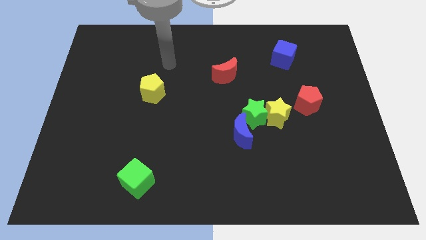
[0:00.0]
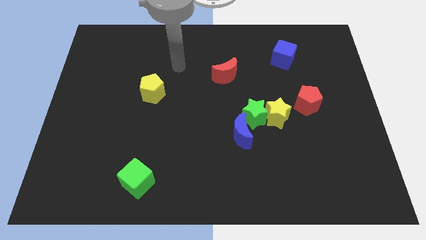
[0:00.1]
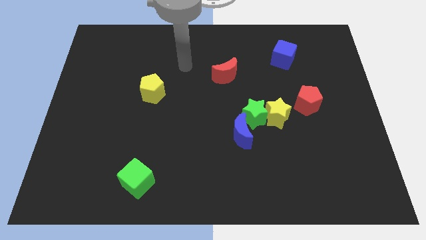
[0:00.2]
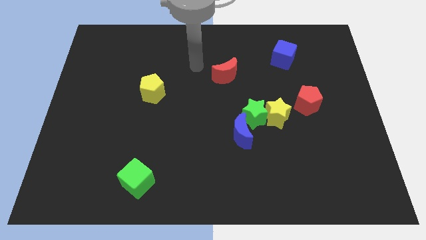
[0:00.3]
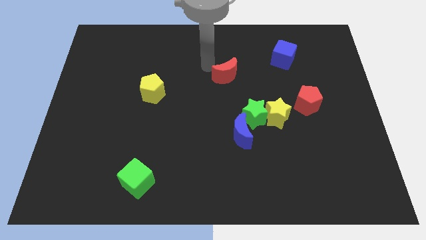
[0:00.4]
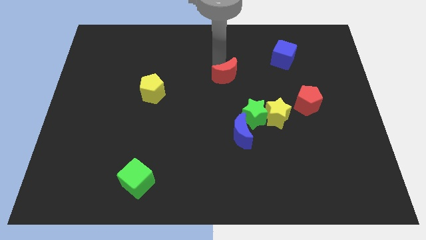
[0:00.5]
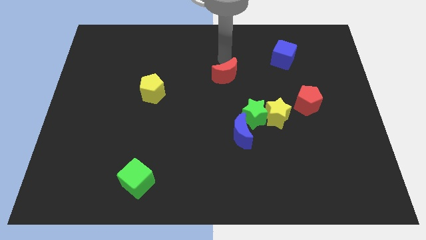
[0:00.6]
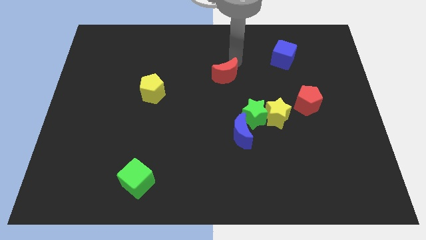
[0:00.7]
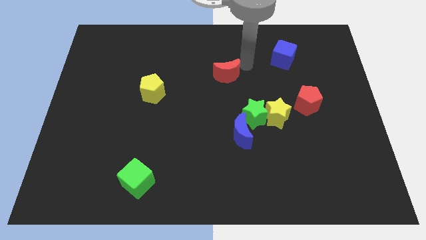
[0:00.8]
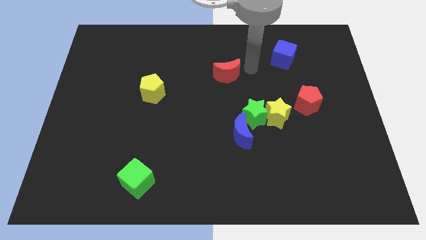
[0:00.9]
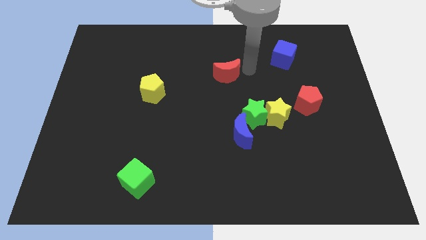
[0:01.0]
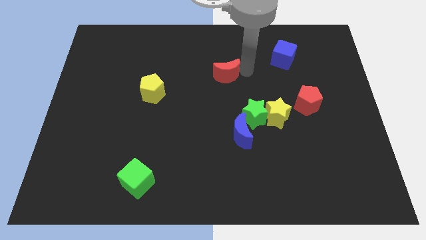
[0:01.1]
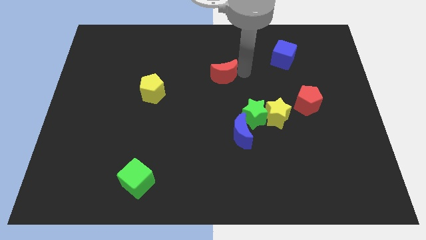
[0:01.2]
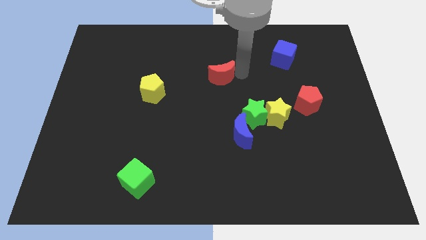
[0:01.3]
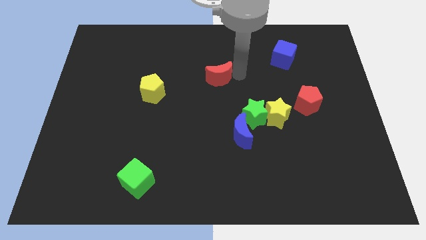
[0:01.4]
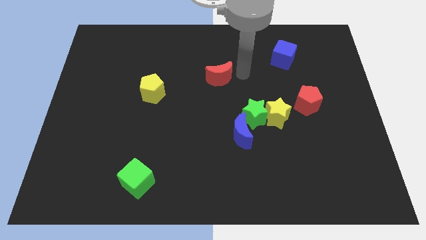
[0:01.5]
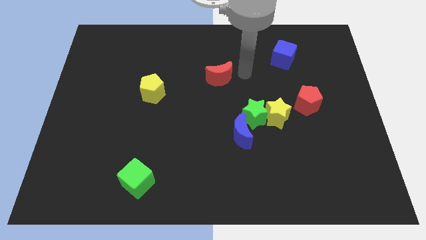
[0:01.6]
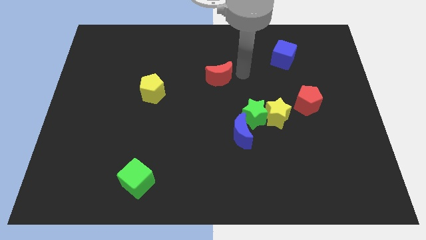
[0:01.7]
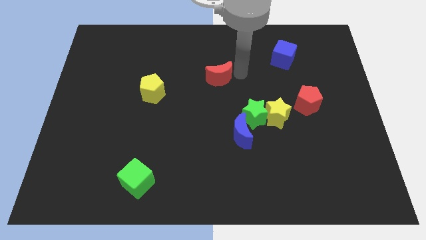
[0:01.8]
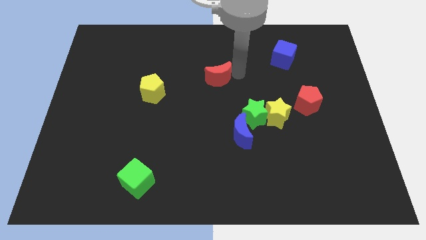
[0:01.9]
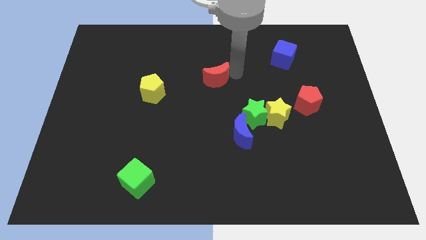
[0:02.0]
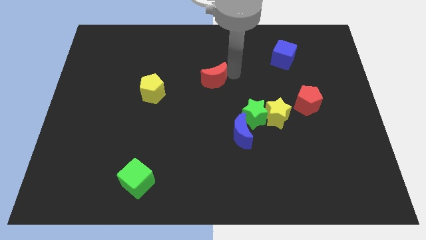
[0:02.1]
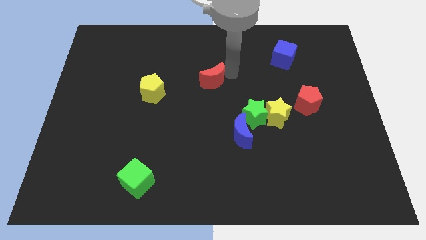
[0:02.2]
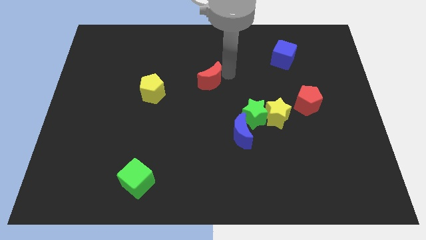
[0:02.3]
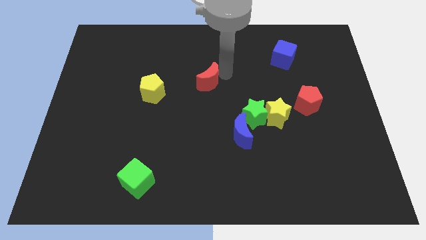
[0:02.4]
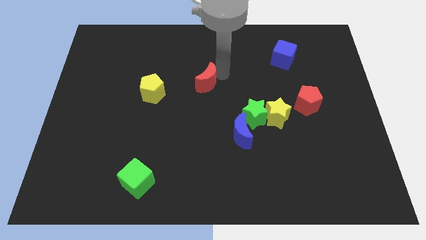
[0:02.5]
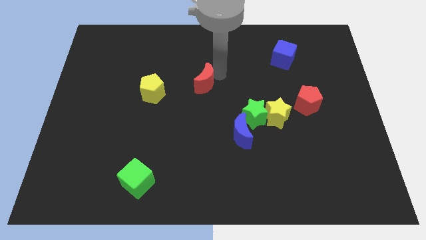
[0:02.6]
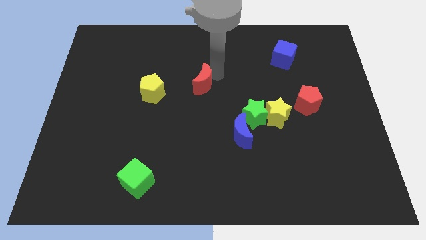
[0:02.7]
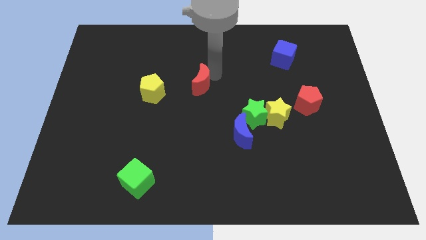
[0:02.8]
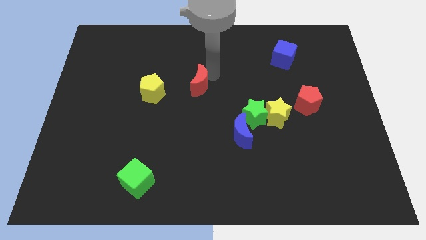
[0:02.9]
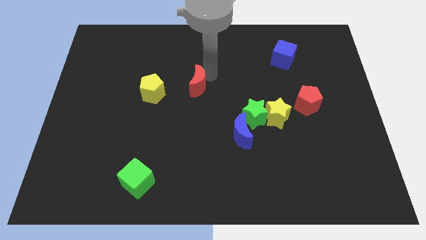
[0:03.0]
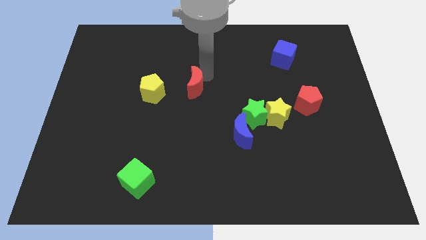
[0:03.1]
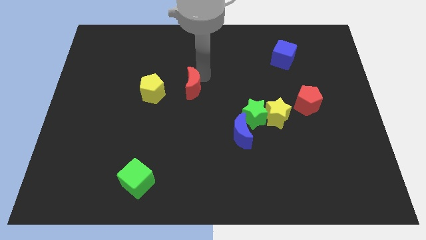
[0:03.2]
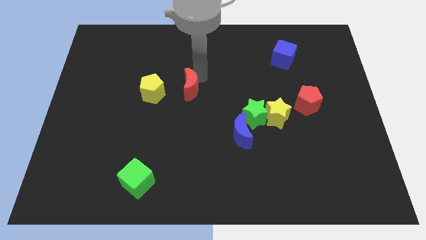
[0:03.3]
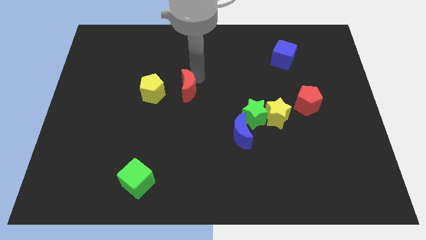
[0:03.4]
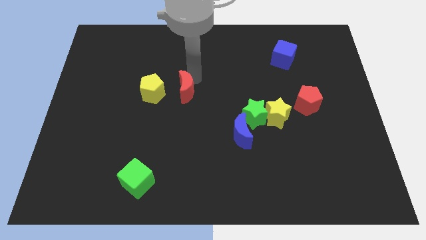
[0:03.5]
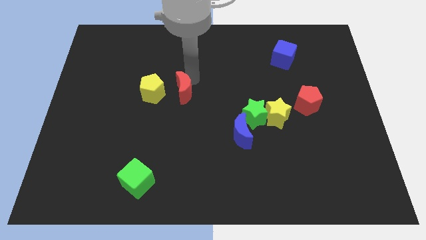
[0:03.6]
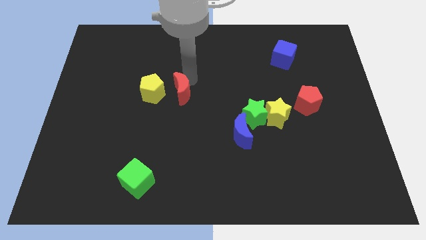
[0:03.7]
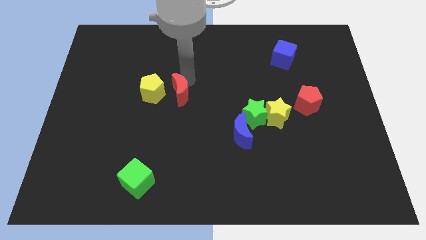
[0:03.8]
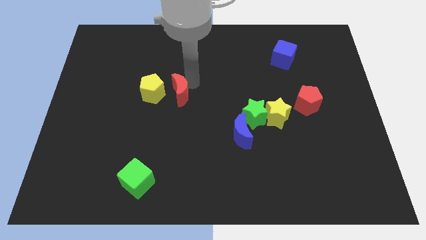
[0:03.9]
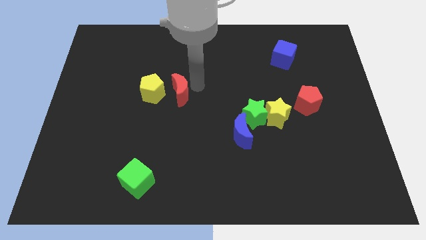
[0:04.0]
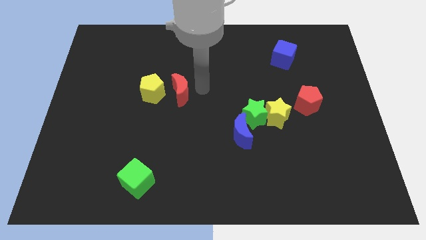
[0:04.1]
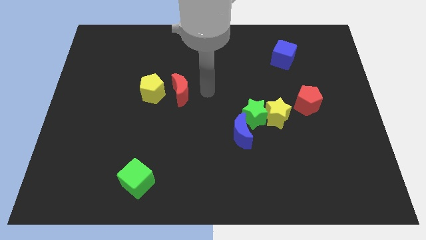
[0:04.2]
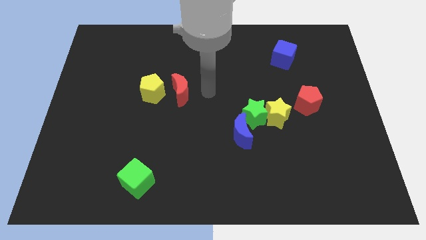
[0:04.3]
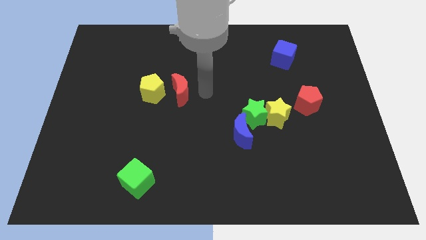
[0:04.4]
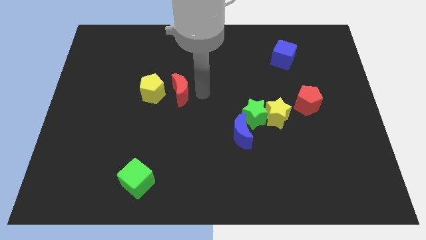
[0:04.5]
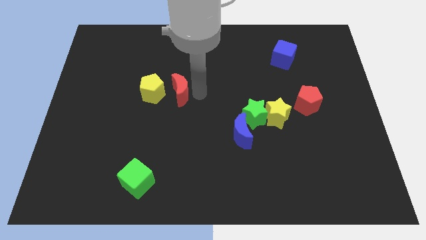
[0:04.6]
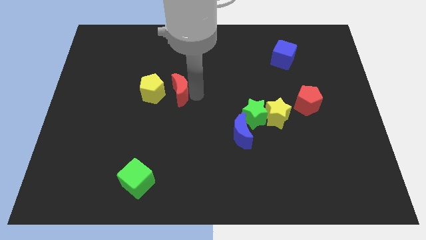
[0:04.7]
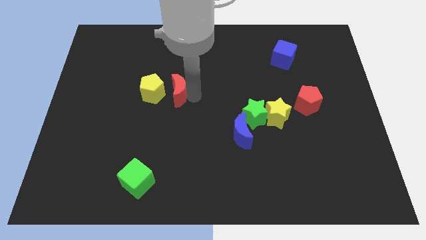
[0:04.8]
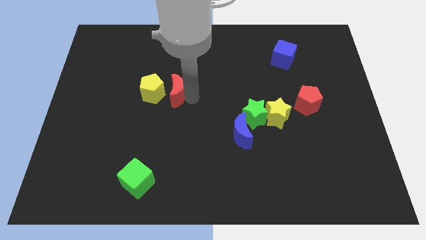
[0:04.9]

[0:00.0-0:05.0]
slide the red moon to the yellow pentagon

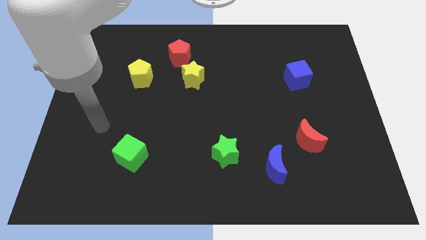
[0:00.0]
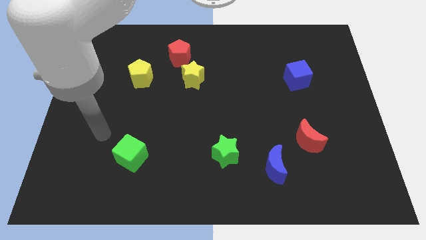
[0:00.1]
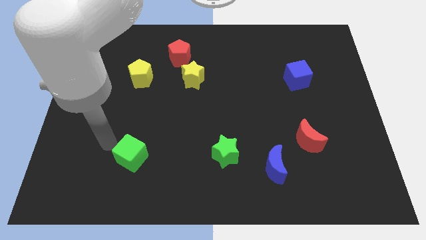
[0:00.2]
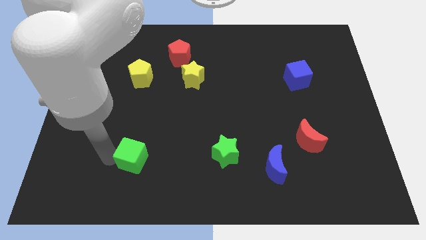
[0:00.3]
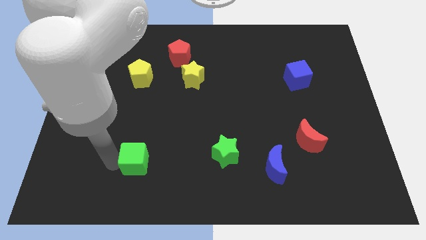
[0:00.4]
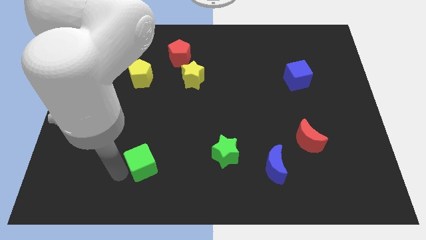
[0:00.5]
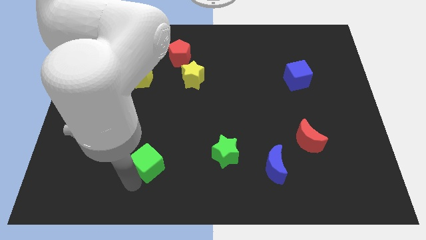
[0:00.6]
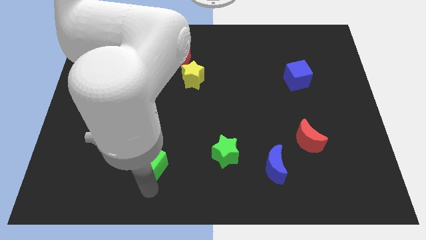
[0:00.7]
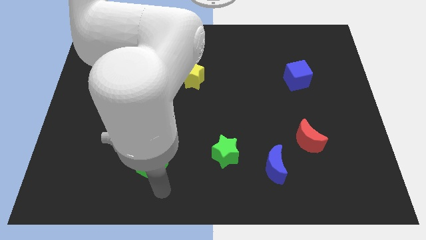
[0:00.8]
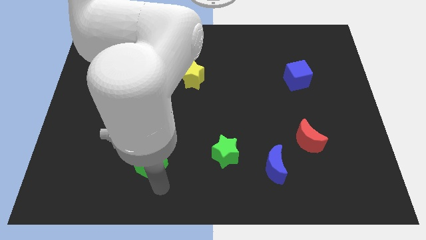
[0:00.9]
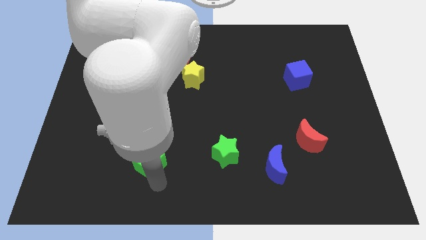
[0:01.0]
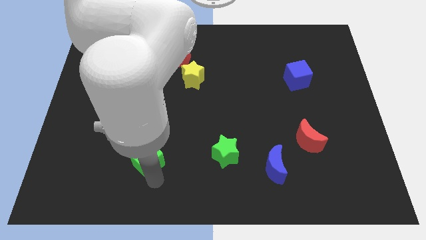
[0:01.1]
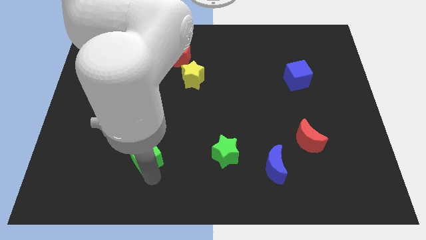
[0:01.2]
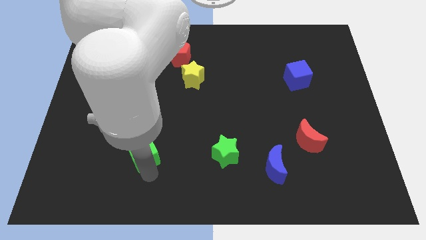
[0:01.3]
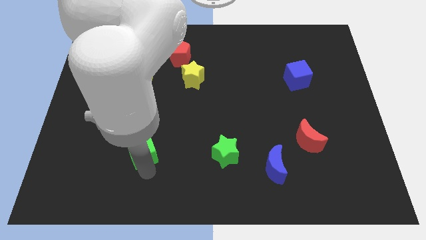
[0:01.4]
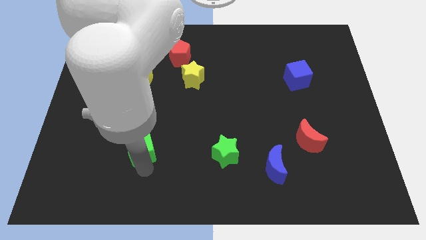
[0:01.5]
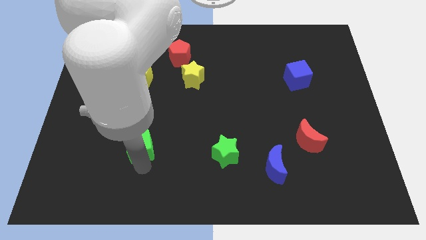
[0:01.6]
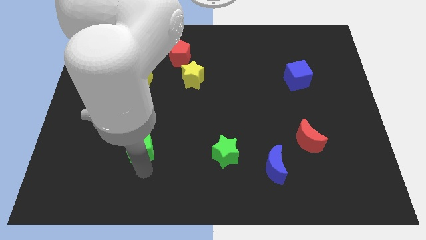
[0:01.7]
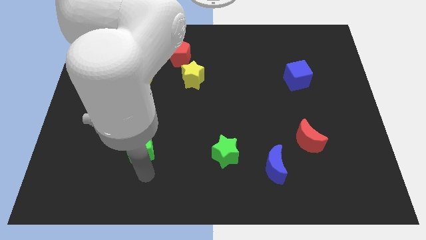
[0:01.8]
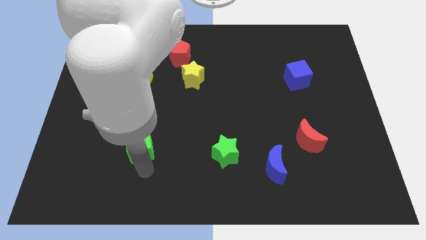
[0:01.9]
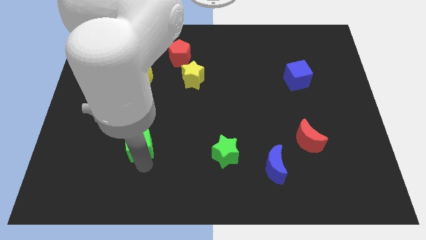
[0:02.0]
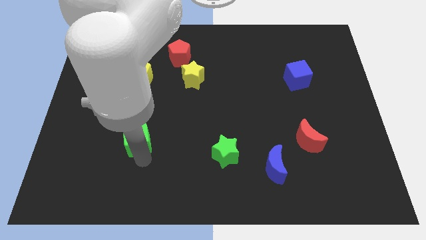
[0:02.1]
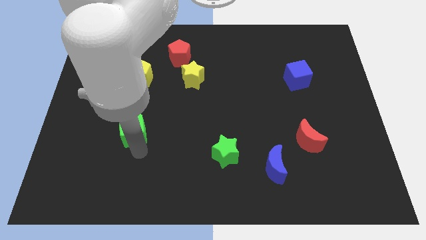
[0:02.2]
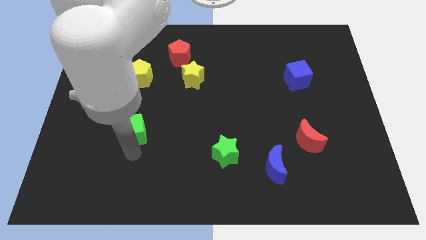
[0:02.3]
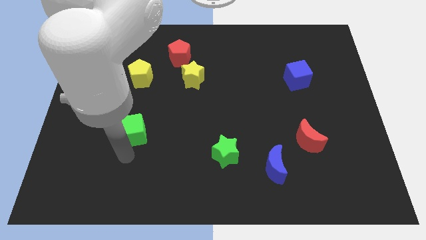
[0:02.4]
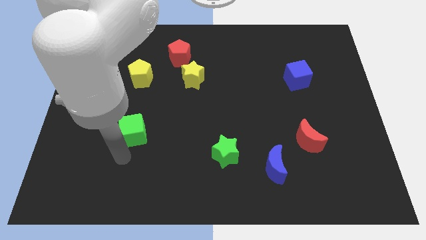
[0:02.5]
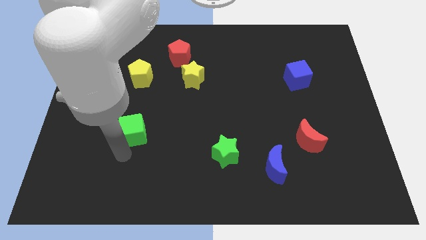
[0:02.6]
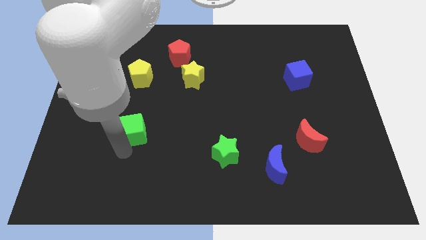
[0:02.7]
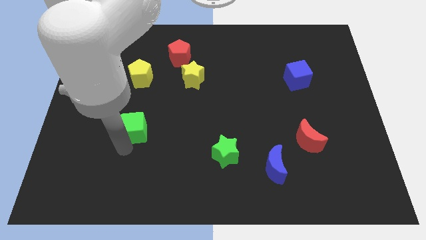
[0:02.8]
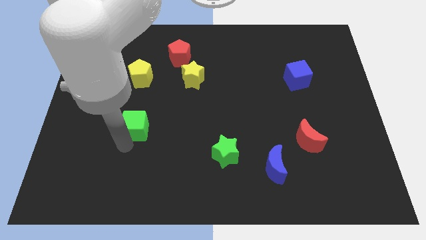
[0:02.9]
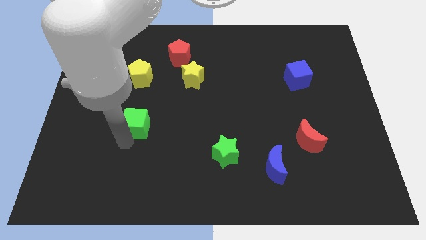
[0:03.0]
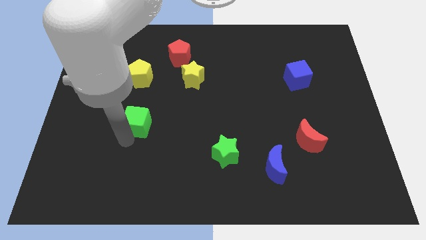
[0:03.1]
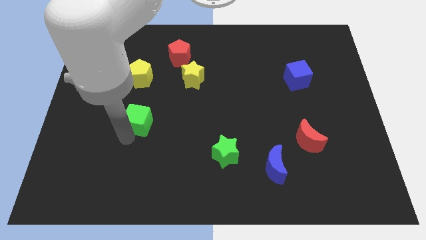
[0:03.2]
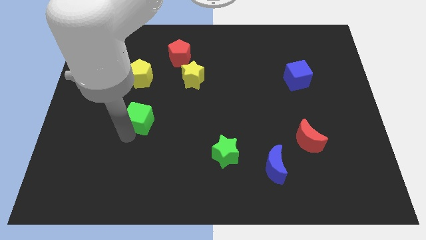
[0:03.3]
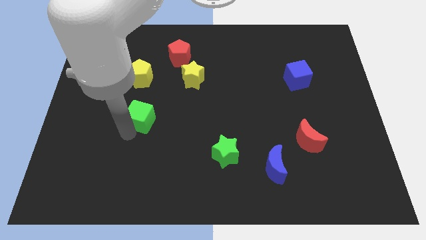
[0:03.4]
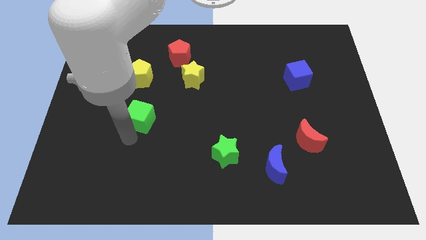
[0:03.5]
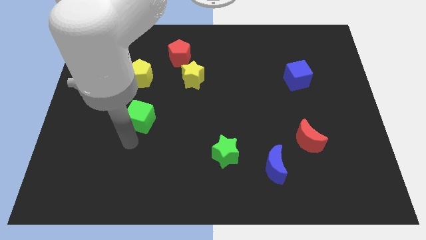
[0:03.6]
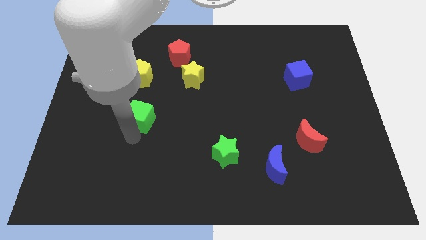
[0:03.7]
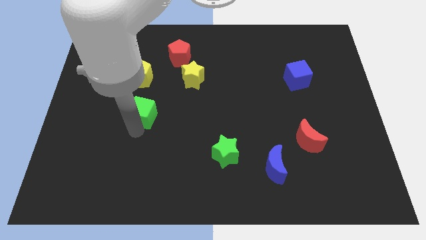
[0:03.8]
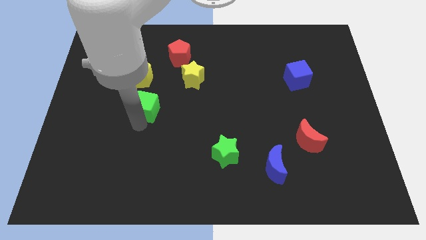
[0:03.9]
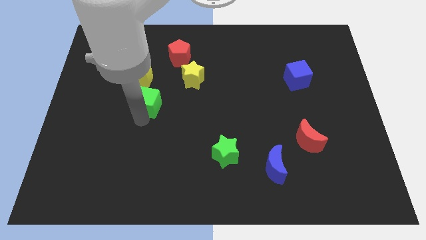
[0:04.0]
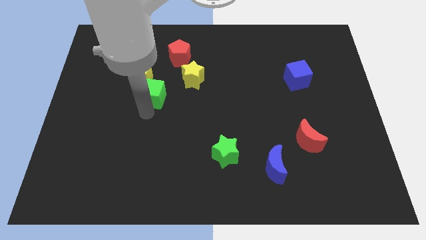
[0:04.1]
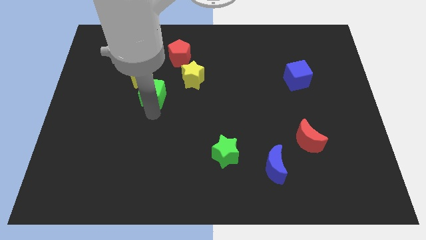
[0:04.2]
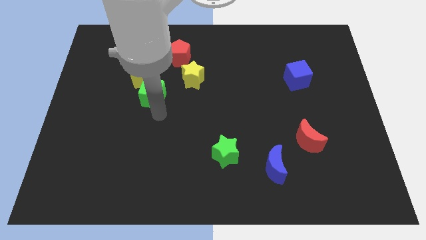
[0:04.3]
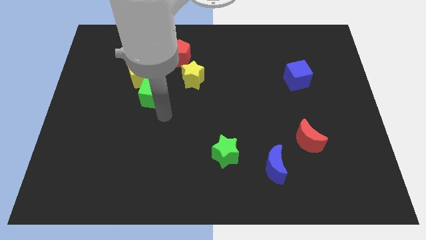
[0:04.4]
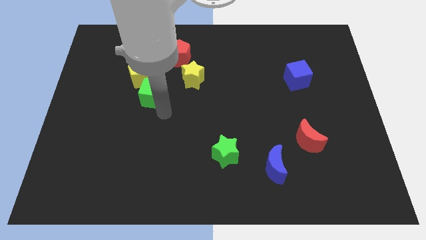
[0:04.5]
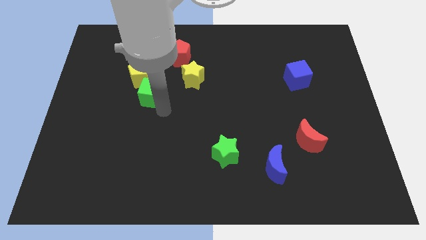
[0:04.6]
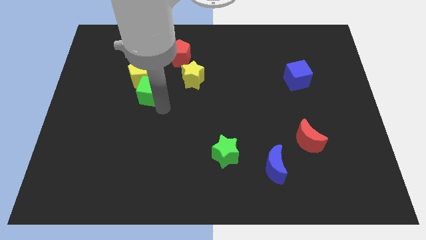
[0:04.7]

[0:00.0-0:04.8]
slide the green cube to the yellow pentagon
